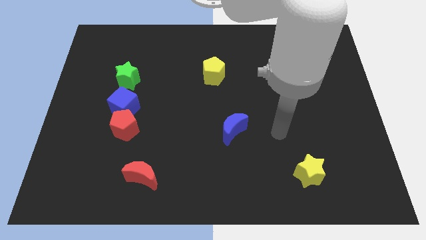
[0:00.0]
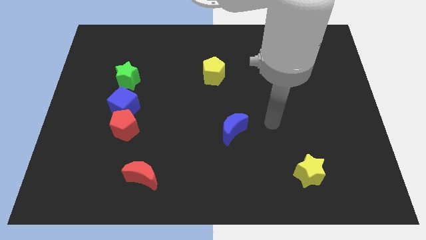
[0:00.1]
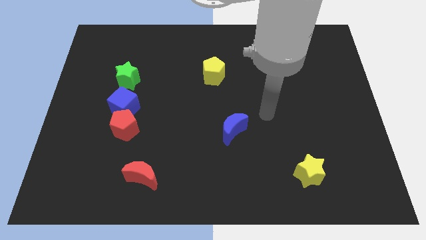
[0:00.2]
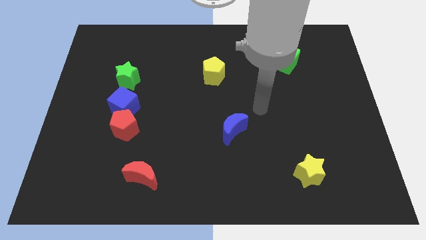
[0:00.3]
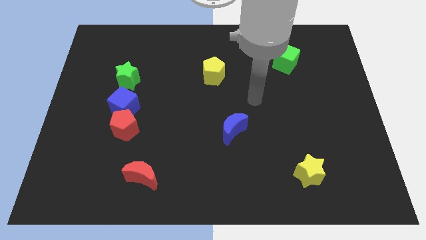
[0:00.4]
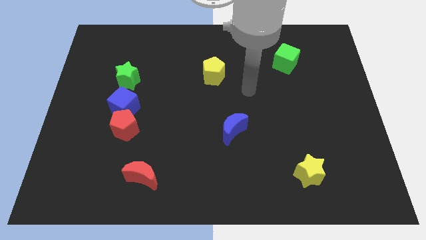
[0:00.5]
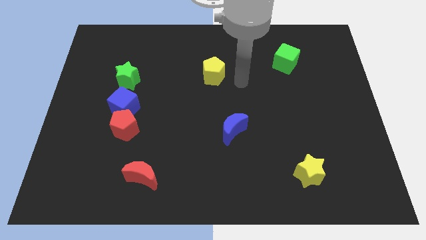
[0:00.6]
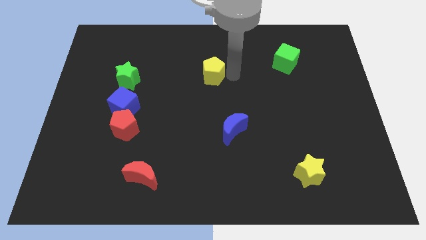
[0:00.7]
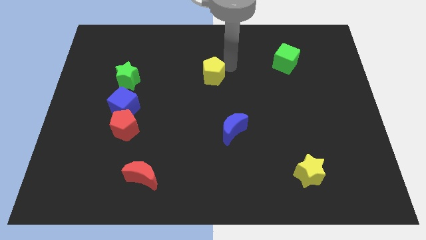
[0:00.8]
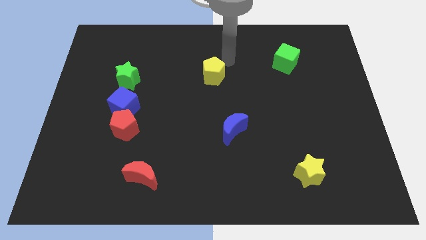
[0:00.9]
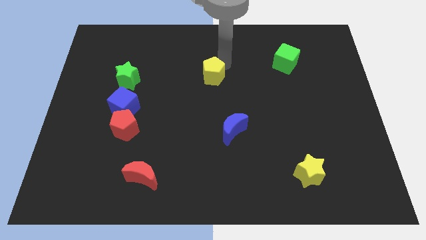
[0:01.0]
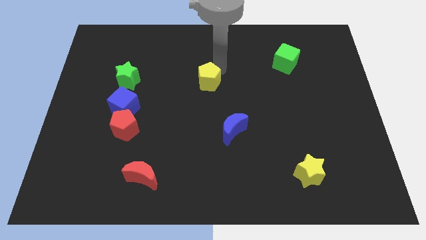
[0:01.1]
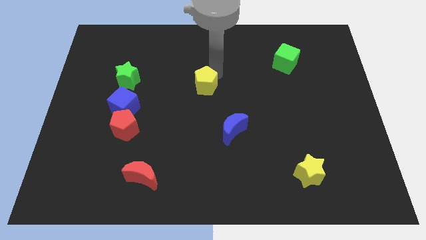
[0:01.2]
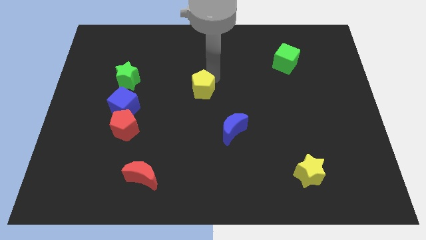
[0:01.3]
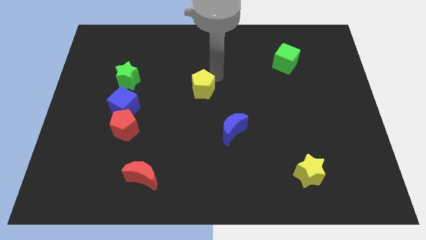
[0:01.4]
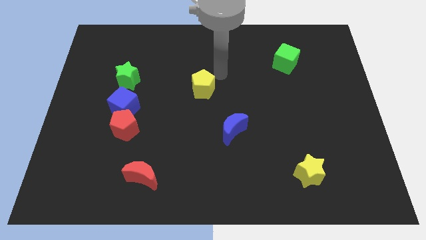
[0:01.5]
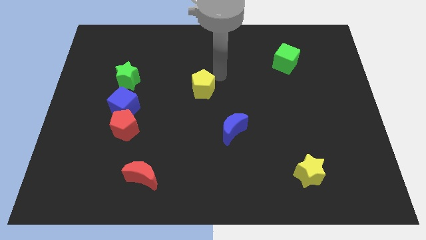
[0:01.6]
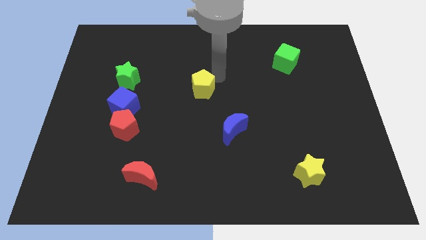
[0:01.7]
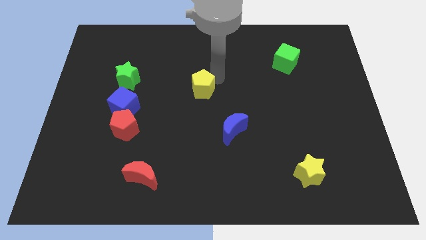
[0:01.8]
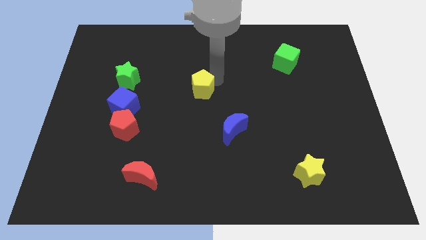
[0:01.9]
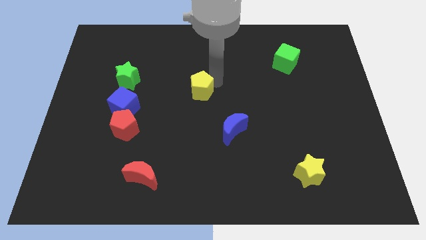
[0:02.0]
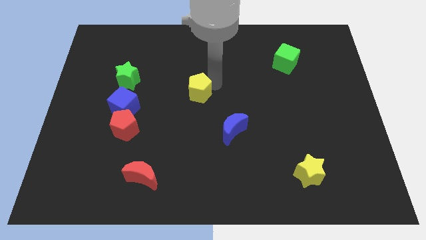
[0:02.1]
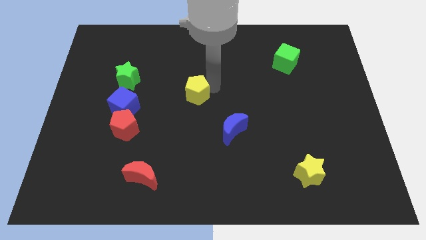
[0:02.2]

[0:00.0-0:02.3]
move the yellow pentagon a little bit diagonally down and left

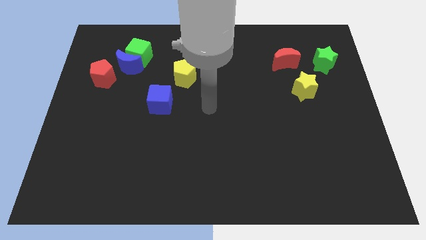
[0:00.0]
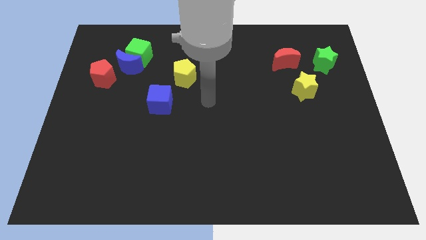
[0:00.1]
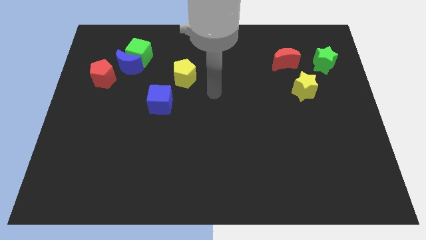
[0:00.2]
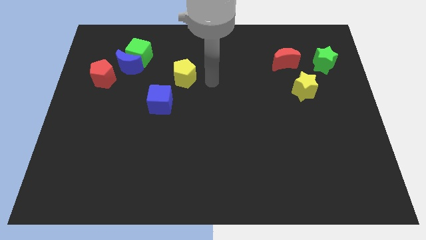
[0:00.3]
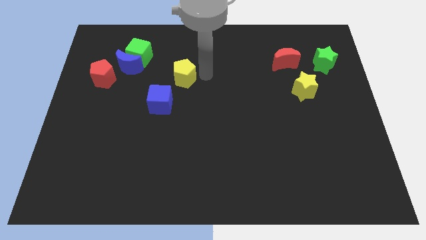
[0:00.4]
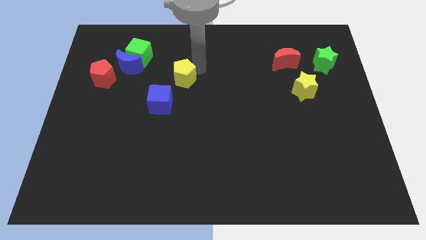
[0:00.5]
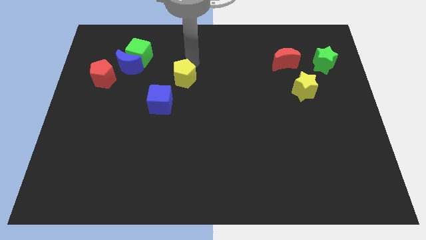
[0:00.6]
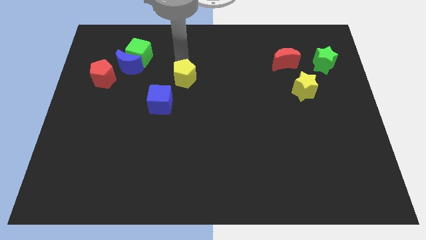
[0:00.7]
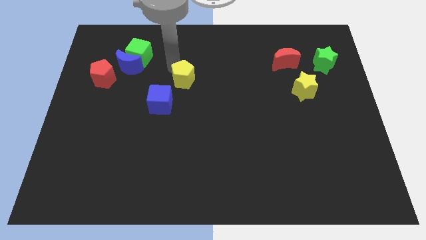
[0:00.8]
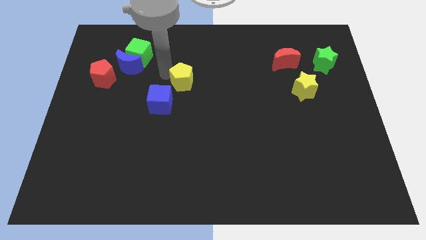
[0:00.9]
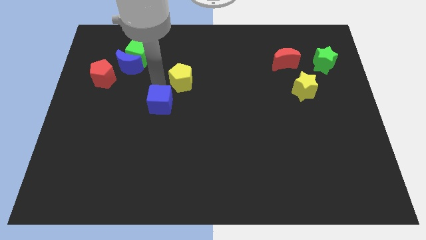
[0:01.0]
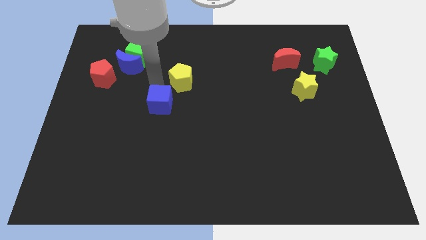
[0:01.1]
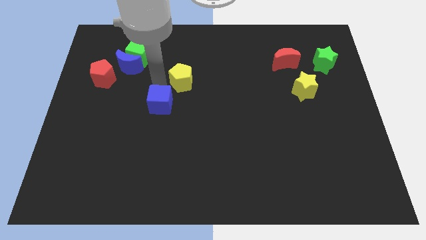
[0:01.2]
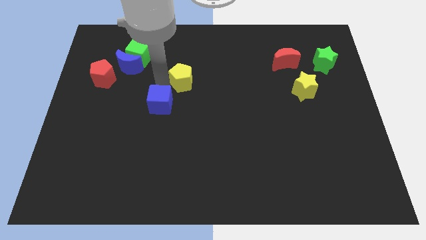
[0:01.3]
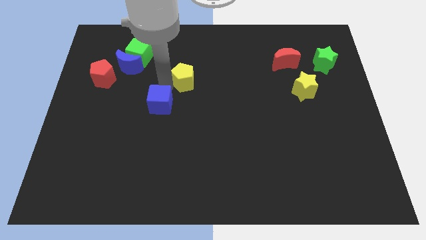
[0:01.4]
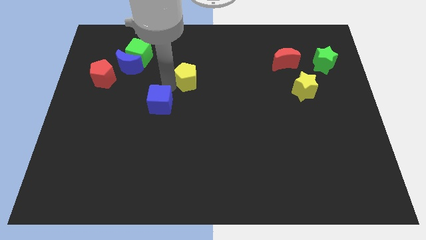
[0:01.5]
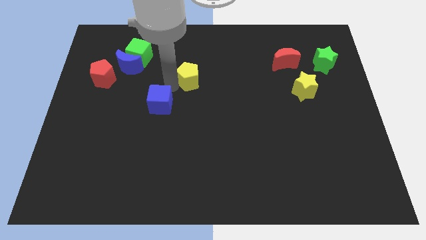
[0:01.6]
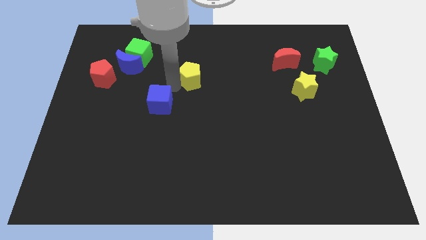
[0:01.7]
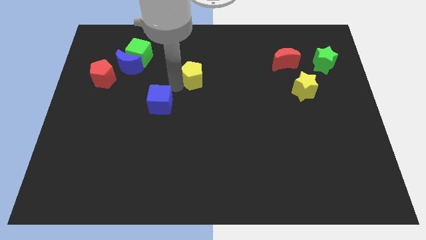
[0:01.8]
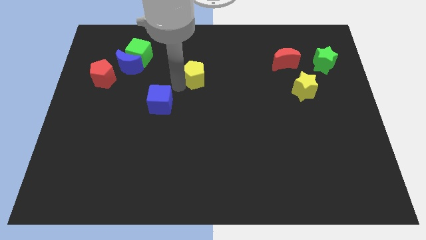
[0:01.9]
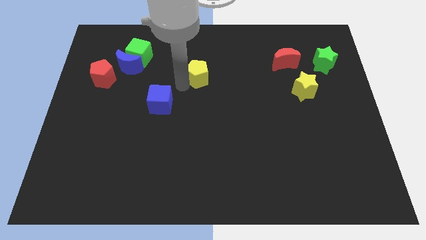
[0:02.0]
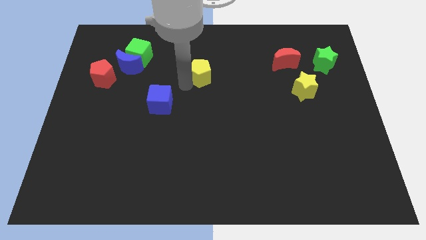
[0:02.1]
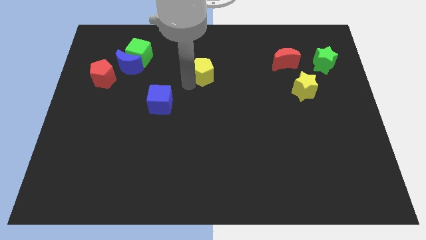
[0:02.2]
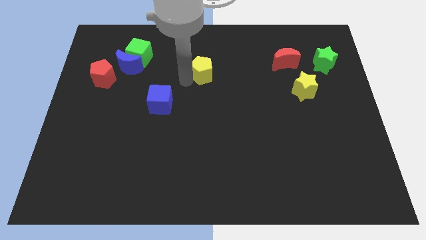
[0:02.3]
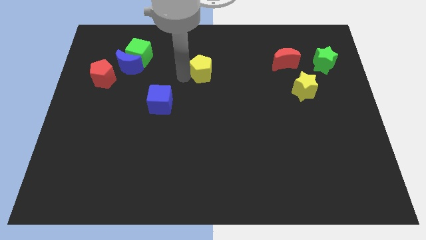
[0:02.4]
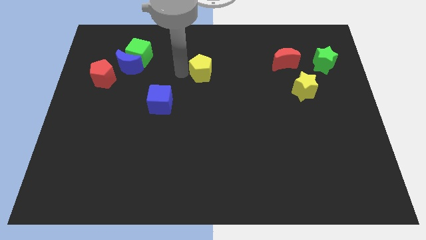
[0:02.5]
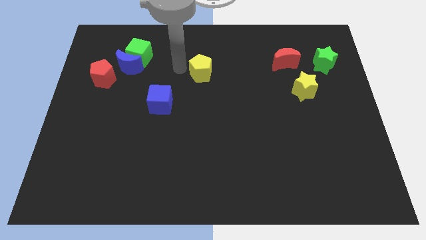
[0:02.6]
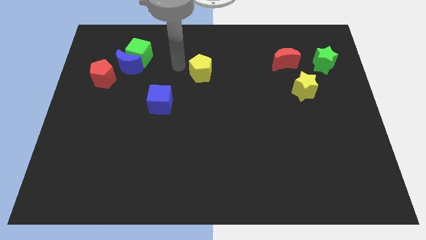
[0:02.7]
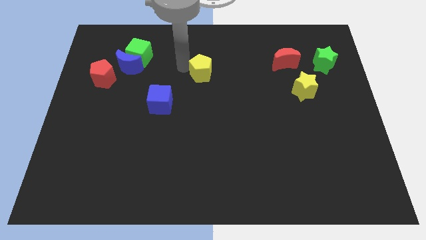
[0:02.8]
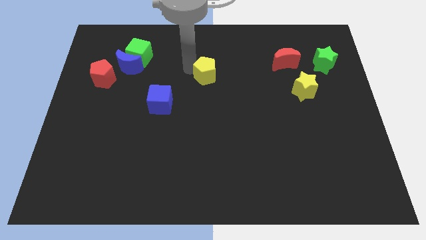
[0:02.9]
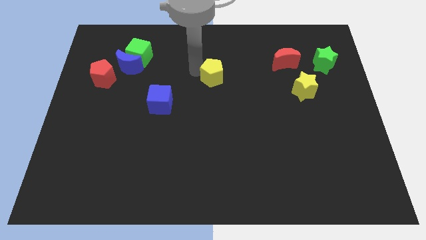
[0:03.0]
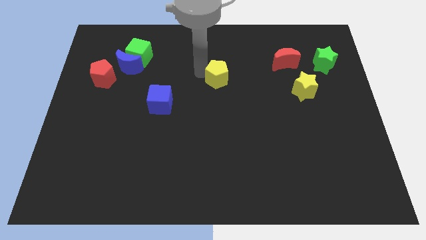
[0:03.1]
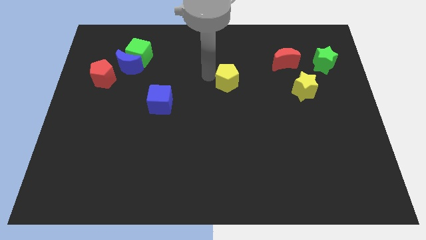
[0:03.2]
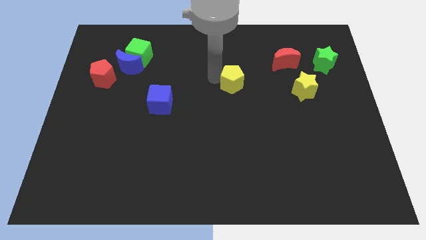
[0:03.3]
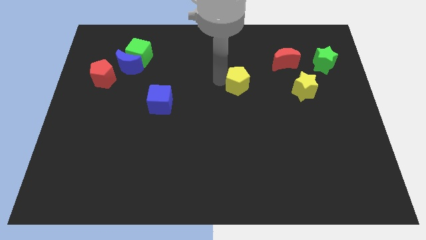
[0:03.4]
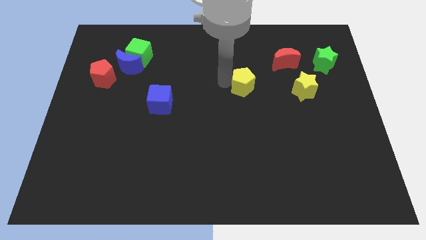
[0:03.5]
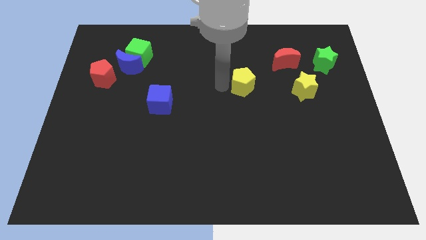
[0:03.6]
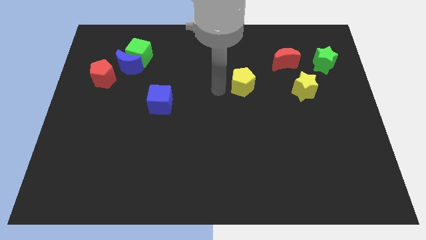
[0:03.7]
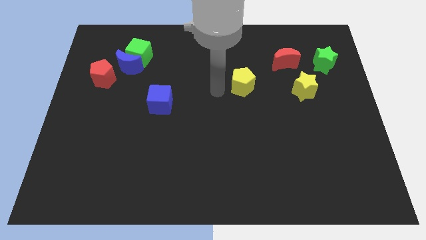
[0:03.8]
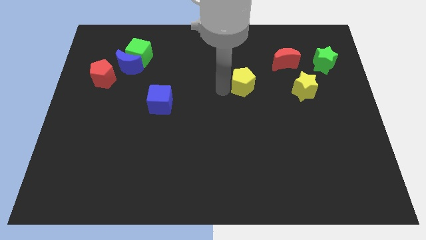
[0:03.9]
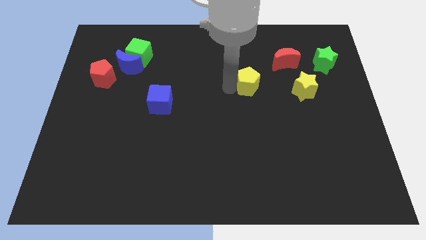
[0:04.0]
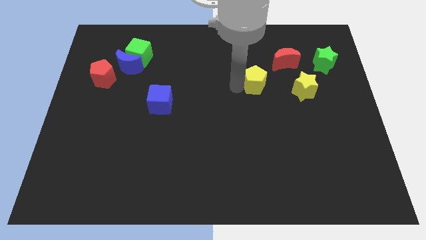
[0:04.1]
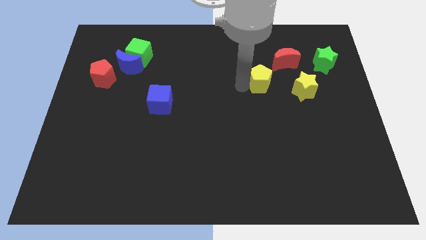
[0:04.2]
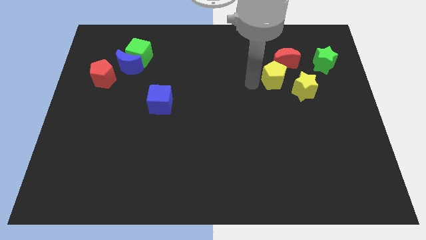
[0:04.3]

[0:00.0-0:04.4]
slide the yellow pentagon to the right

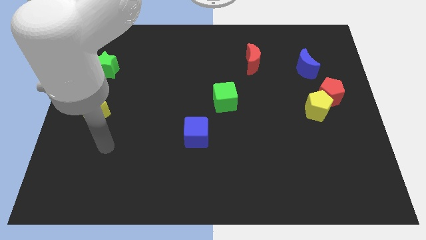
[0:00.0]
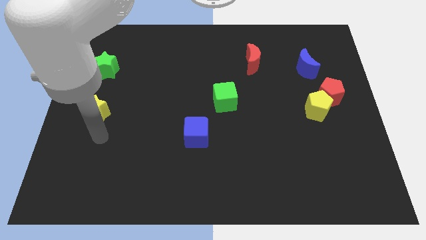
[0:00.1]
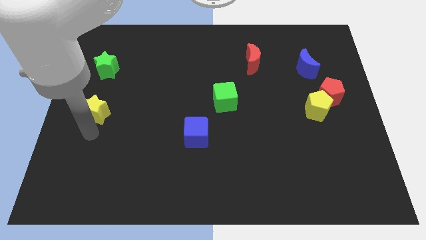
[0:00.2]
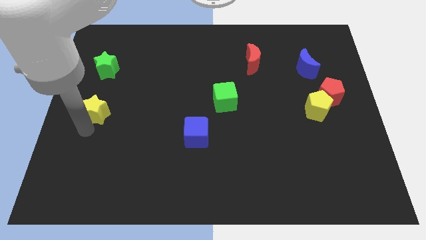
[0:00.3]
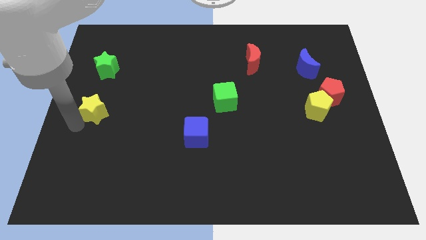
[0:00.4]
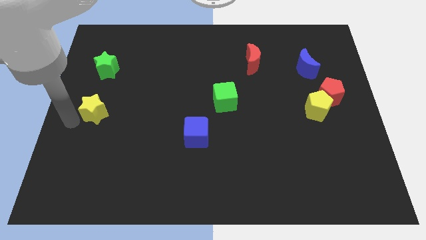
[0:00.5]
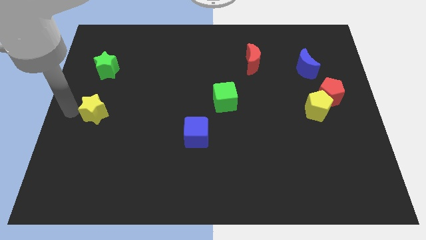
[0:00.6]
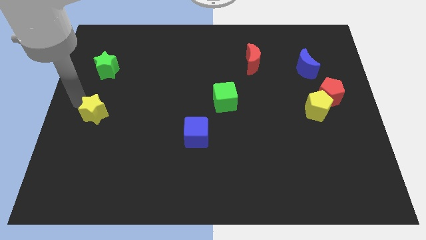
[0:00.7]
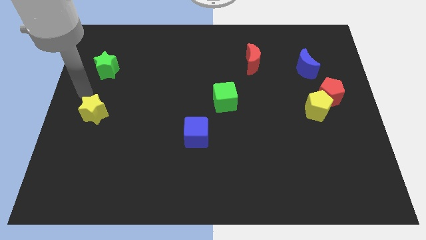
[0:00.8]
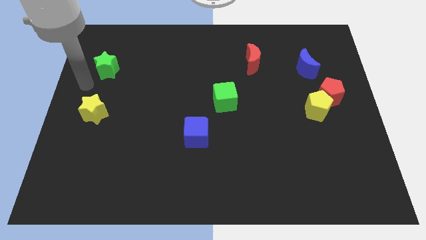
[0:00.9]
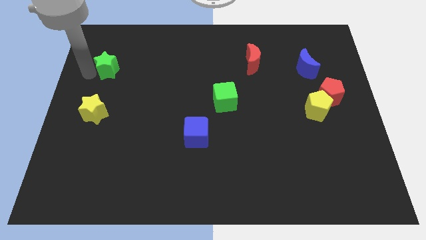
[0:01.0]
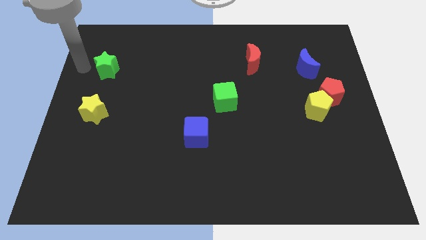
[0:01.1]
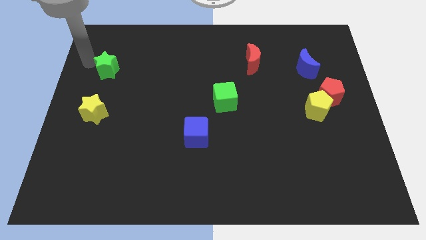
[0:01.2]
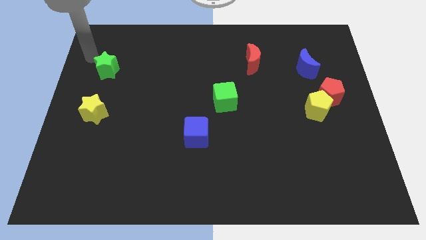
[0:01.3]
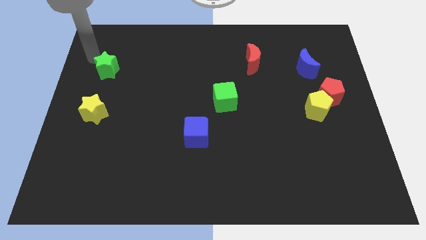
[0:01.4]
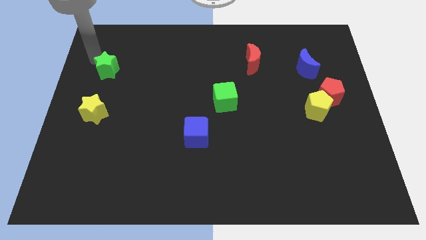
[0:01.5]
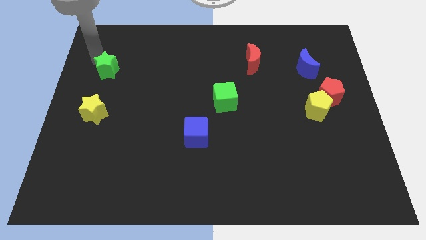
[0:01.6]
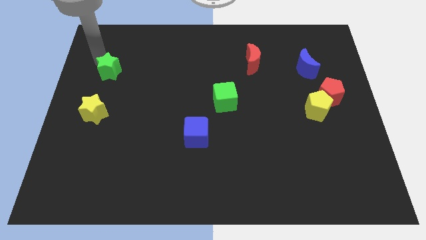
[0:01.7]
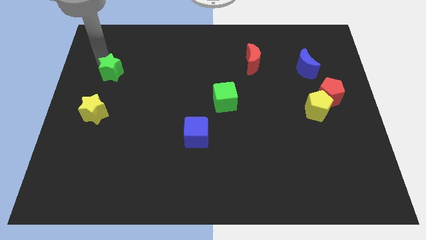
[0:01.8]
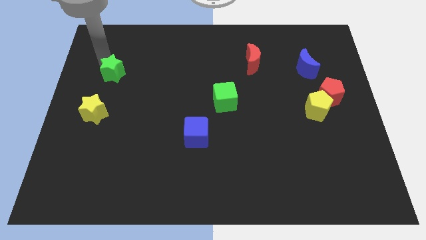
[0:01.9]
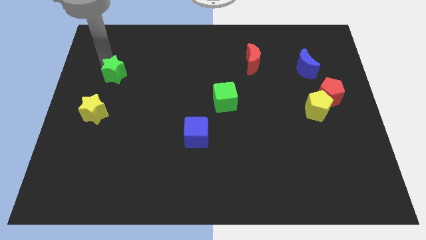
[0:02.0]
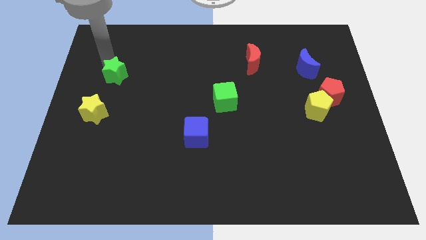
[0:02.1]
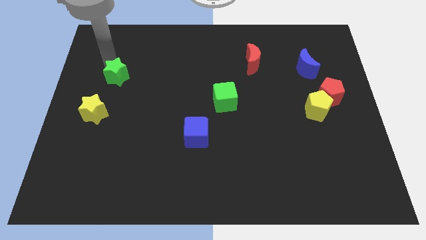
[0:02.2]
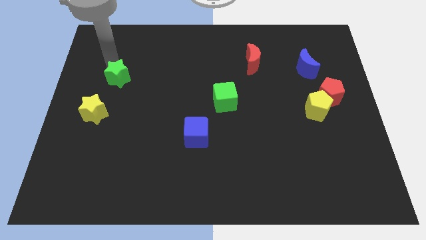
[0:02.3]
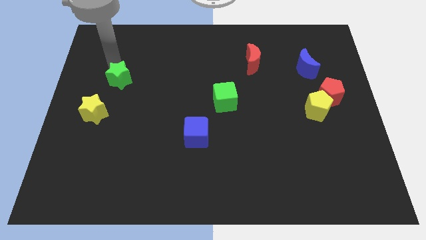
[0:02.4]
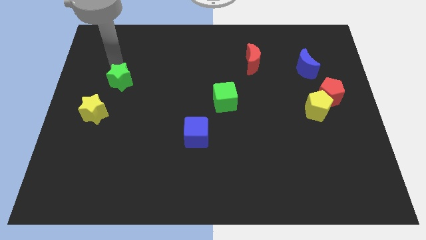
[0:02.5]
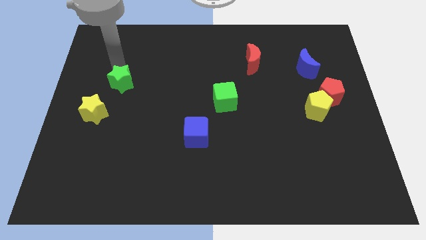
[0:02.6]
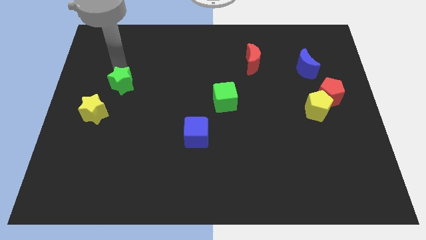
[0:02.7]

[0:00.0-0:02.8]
slide the green star slightly downwards and right
